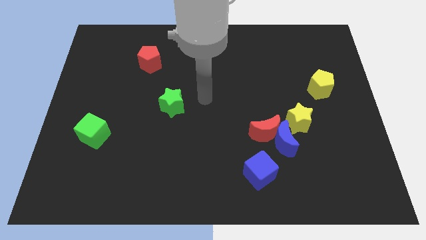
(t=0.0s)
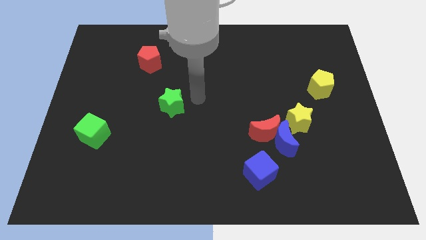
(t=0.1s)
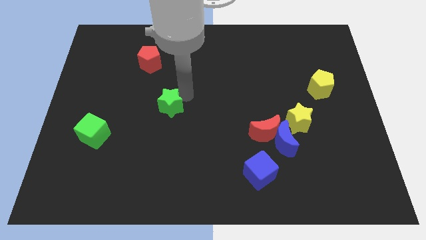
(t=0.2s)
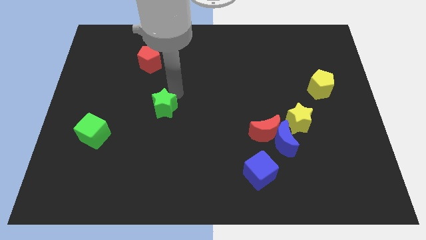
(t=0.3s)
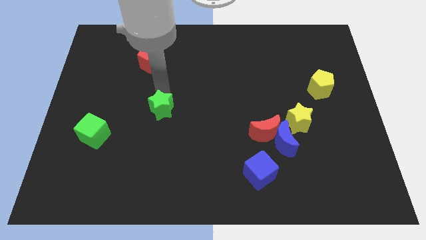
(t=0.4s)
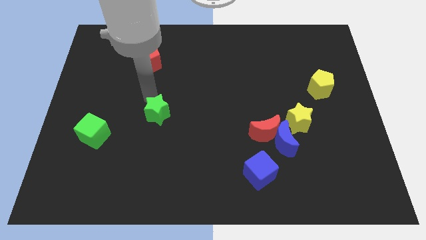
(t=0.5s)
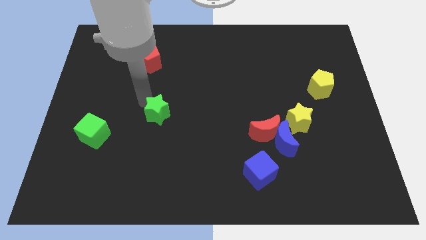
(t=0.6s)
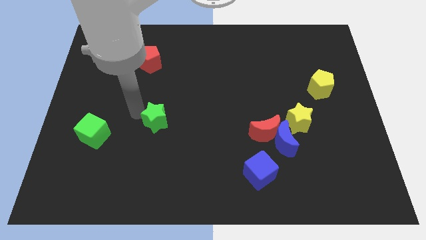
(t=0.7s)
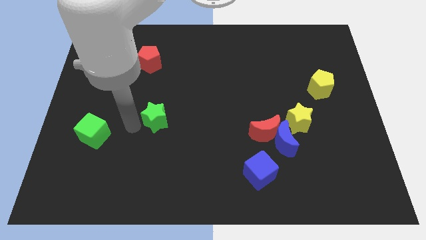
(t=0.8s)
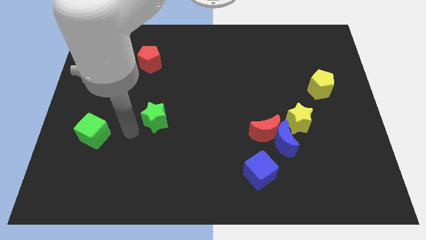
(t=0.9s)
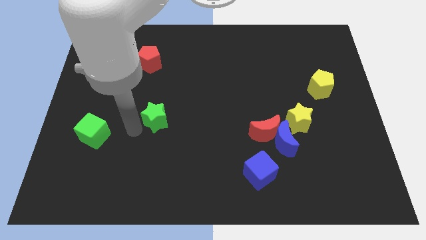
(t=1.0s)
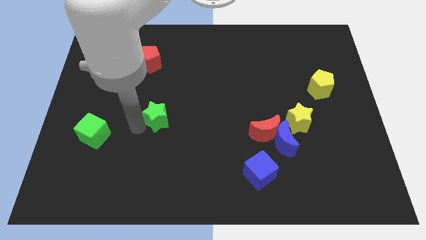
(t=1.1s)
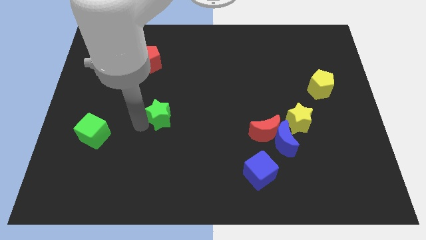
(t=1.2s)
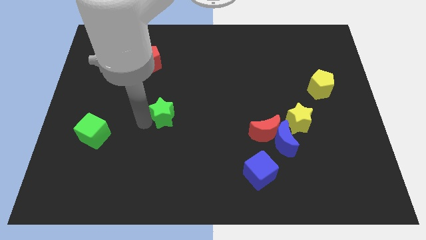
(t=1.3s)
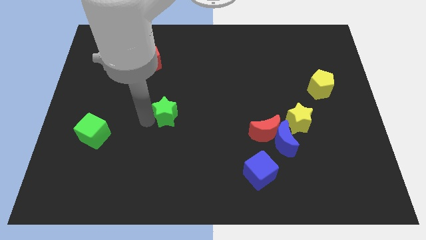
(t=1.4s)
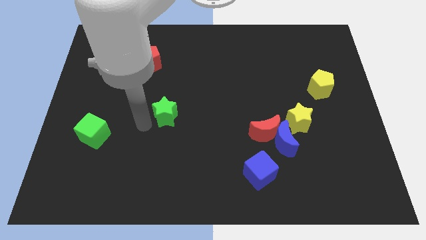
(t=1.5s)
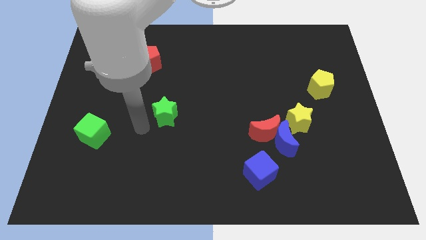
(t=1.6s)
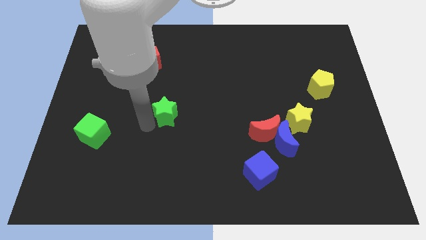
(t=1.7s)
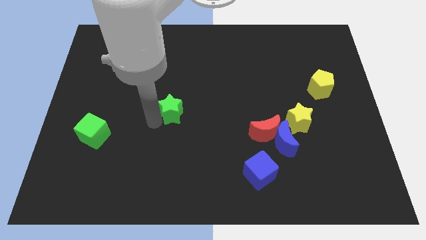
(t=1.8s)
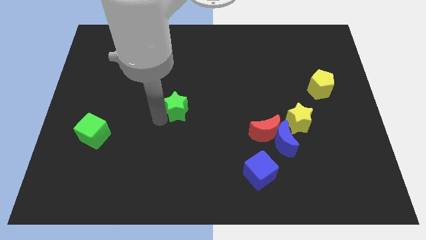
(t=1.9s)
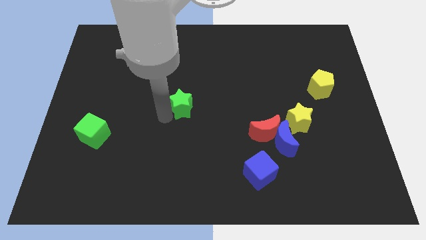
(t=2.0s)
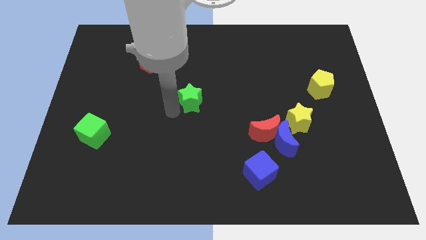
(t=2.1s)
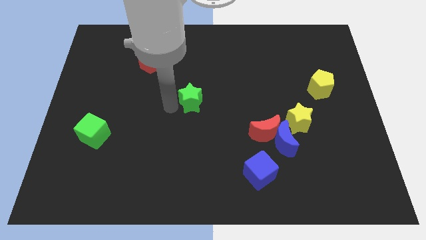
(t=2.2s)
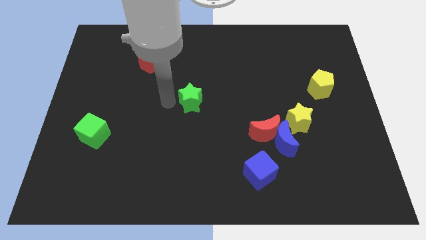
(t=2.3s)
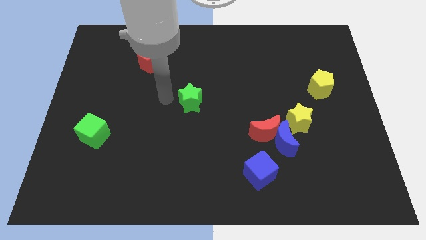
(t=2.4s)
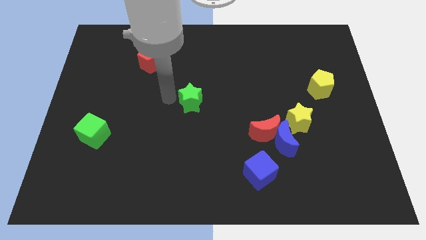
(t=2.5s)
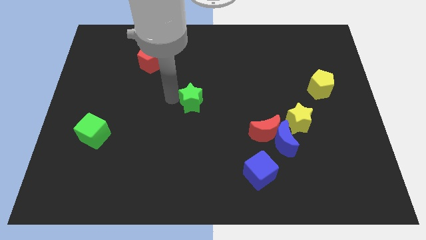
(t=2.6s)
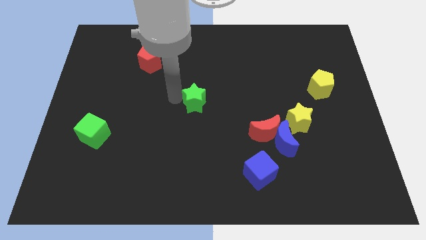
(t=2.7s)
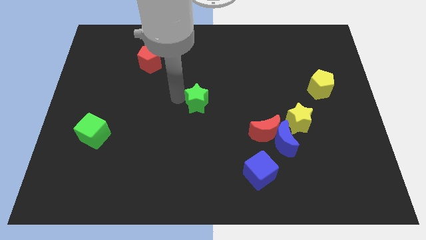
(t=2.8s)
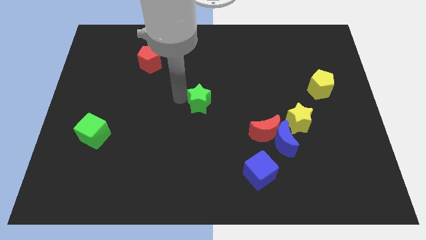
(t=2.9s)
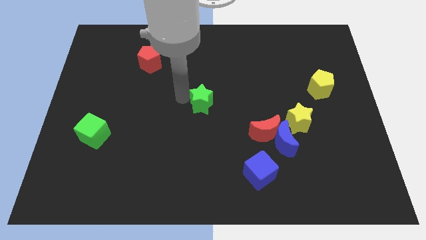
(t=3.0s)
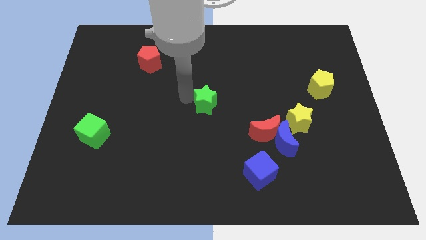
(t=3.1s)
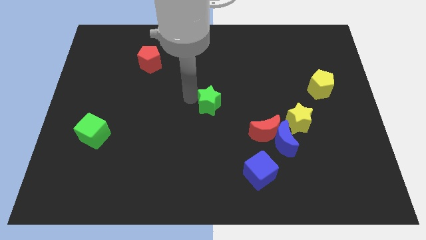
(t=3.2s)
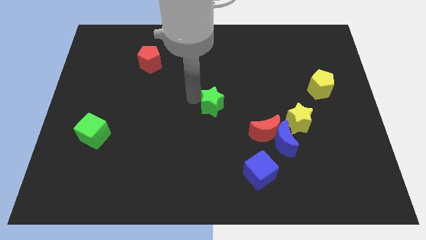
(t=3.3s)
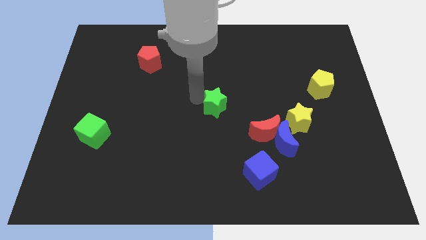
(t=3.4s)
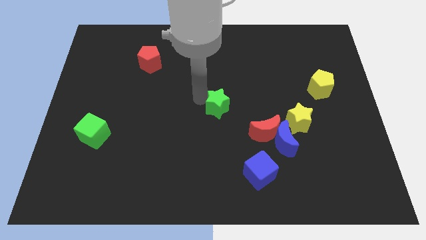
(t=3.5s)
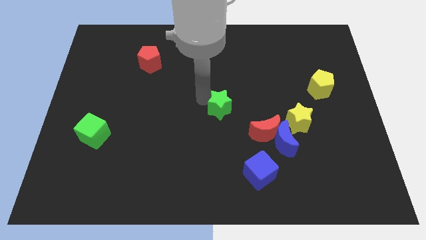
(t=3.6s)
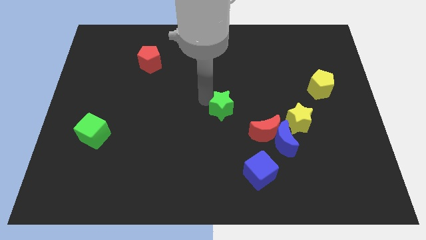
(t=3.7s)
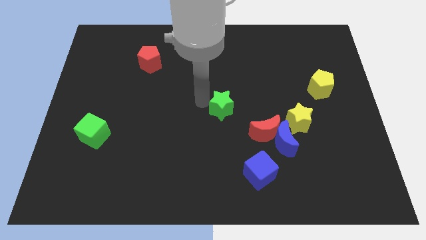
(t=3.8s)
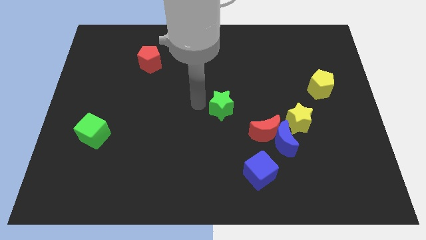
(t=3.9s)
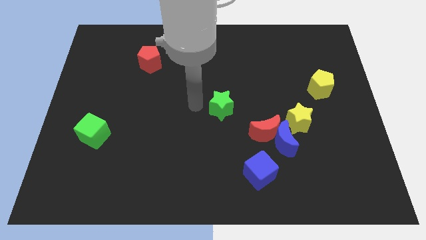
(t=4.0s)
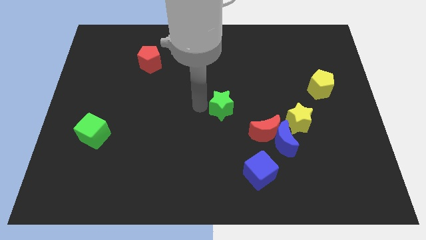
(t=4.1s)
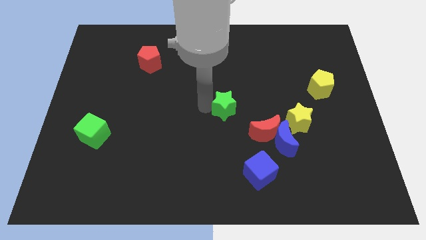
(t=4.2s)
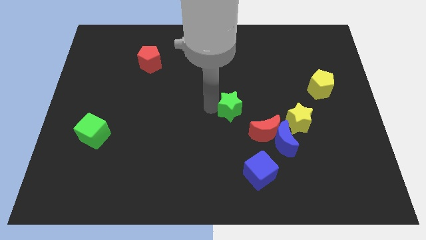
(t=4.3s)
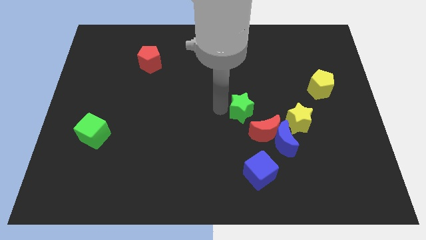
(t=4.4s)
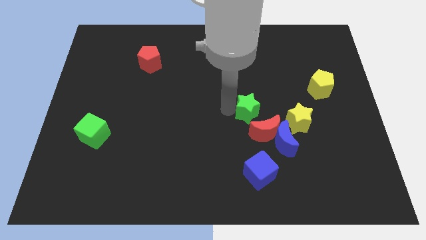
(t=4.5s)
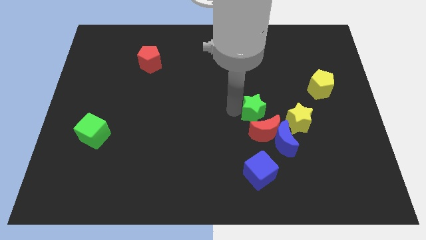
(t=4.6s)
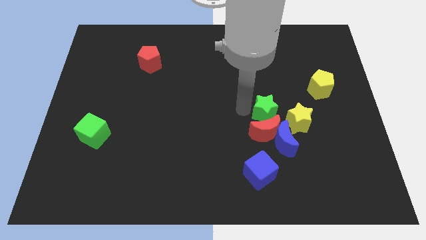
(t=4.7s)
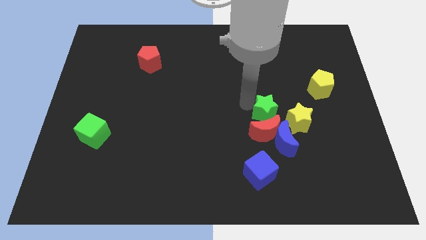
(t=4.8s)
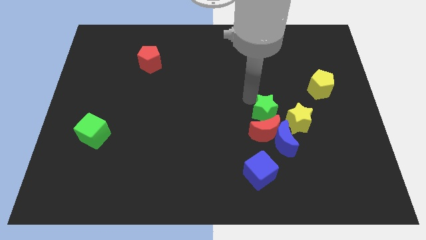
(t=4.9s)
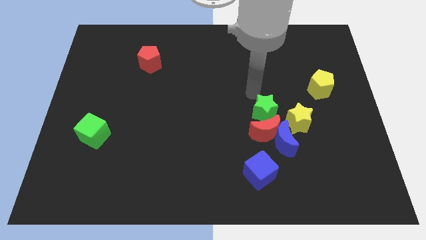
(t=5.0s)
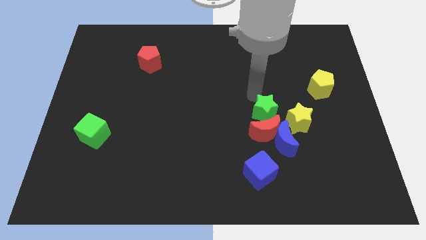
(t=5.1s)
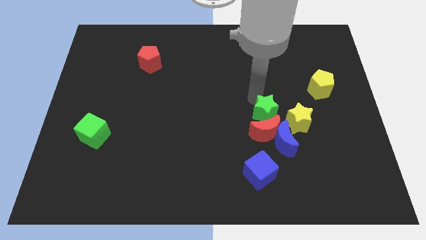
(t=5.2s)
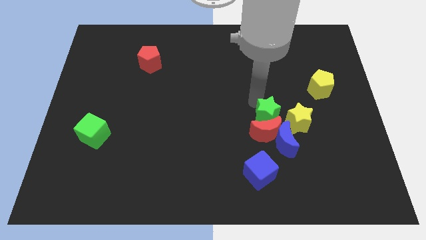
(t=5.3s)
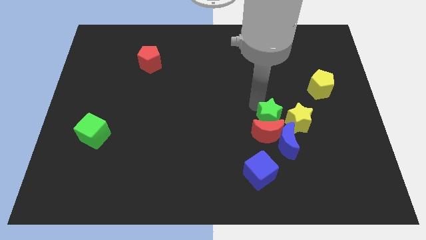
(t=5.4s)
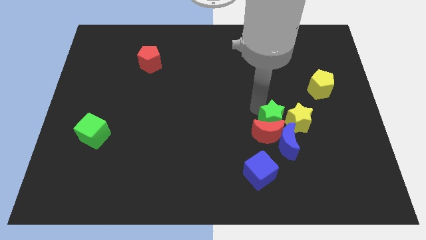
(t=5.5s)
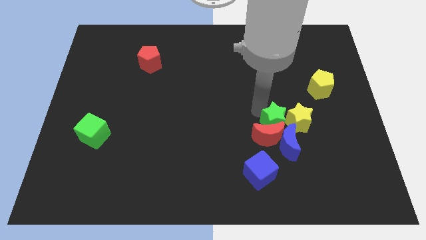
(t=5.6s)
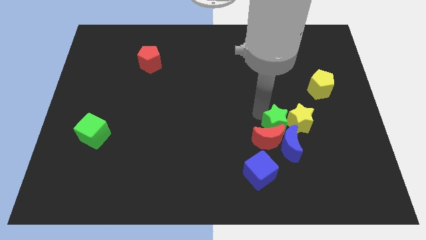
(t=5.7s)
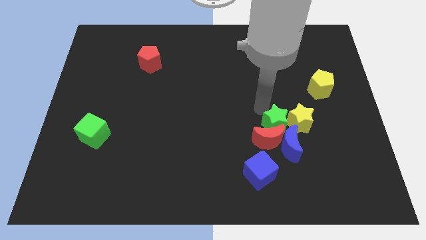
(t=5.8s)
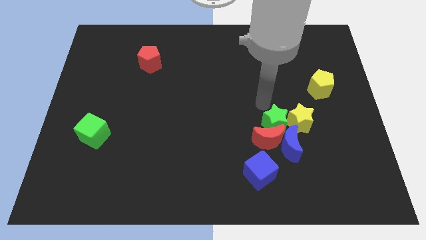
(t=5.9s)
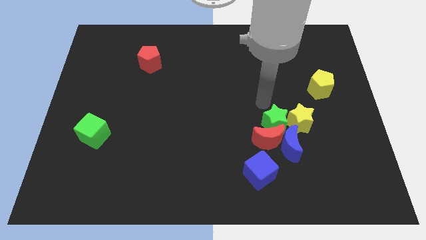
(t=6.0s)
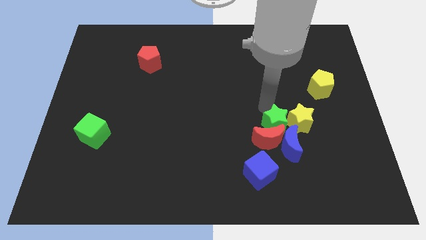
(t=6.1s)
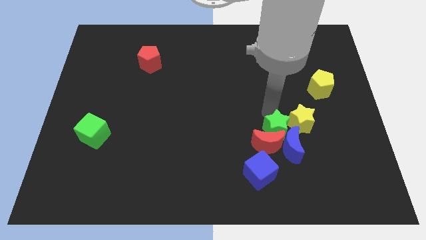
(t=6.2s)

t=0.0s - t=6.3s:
put the green star to the blue moon

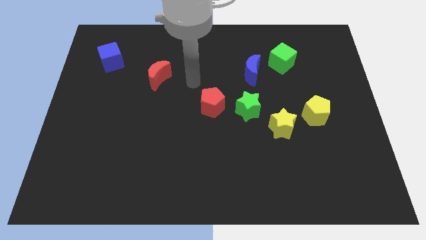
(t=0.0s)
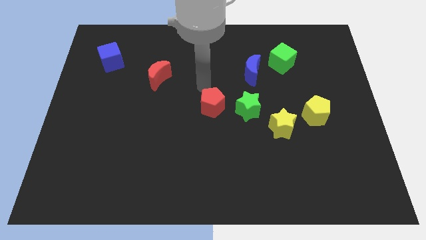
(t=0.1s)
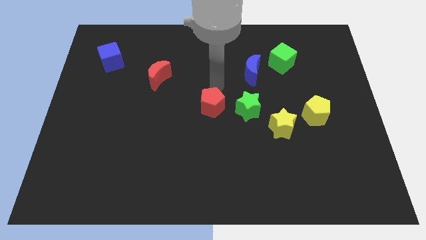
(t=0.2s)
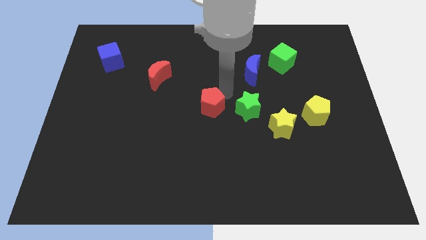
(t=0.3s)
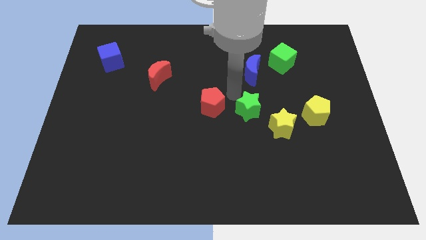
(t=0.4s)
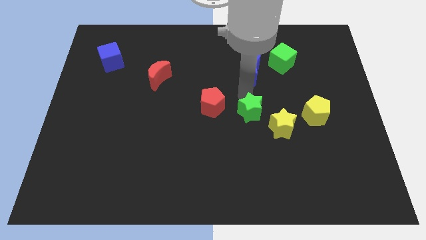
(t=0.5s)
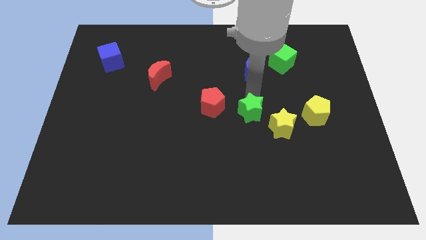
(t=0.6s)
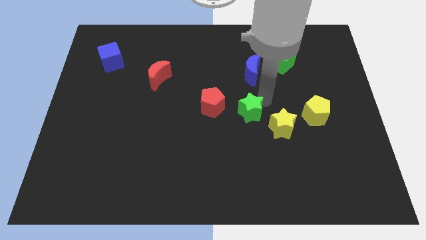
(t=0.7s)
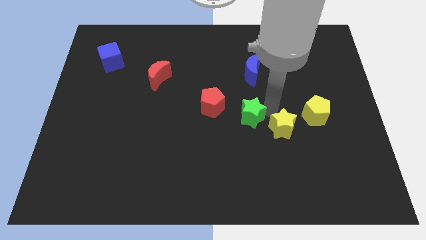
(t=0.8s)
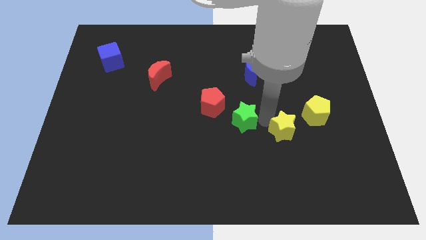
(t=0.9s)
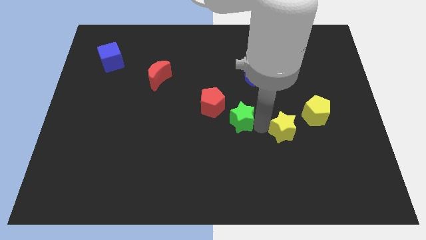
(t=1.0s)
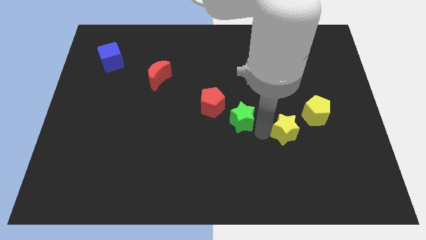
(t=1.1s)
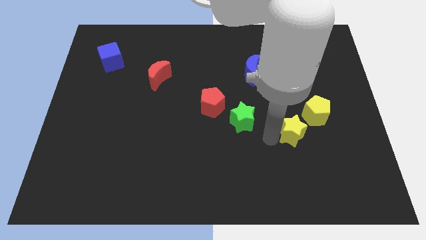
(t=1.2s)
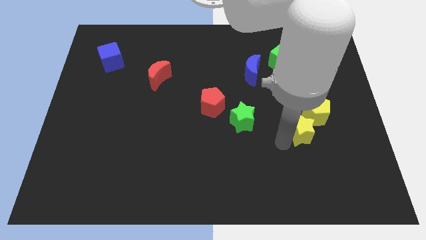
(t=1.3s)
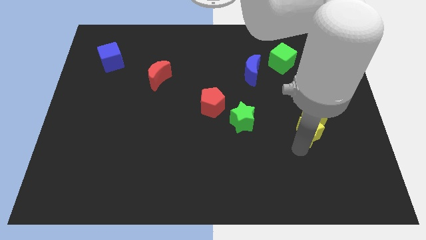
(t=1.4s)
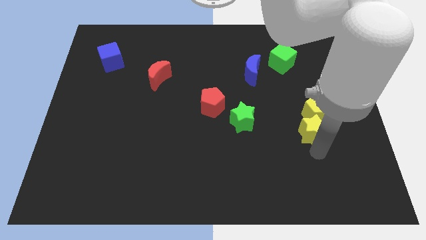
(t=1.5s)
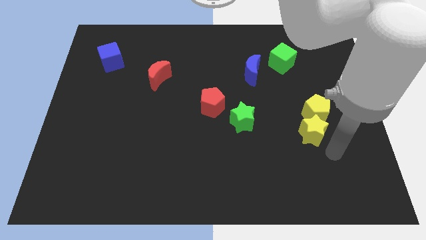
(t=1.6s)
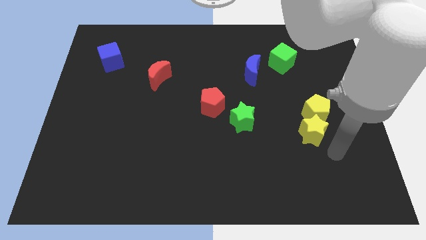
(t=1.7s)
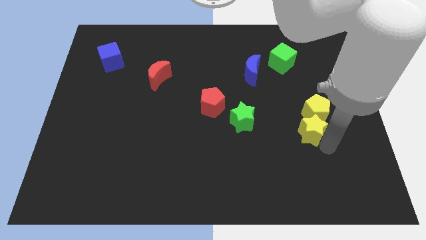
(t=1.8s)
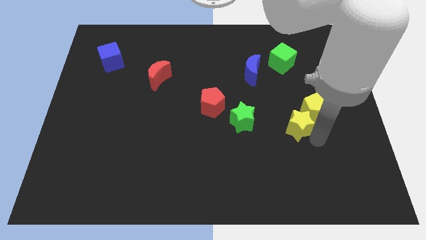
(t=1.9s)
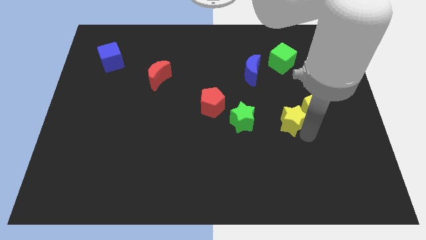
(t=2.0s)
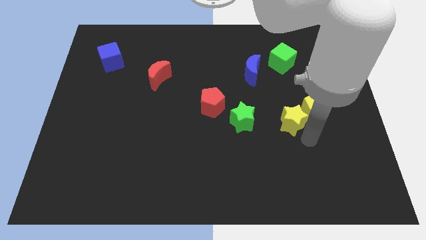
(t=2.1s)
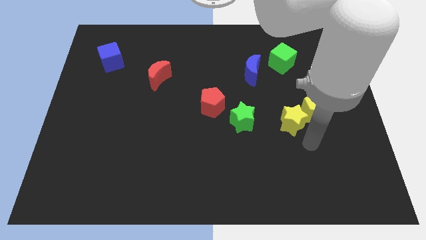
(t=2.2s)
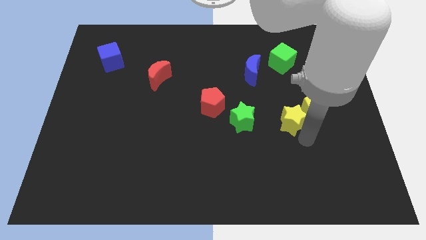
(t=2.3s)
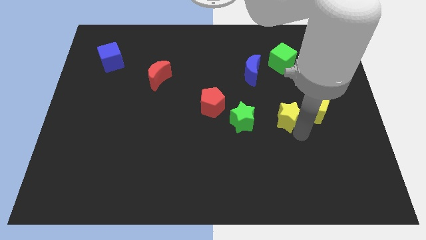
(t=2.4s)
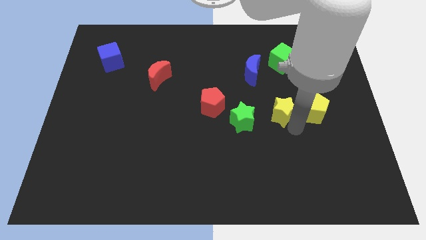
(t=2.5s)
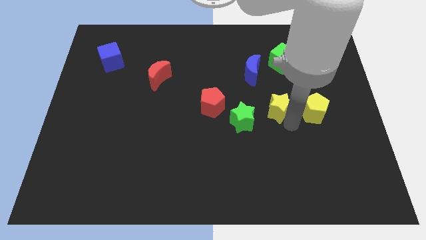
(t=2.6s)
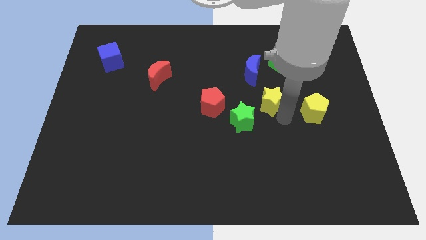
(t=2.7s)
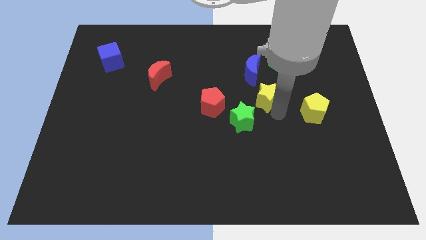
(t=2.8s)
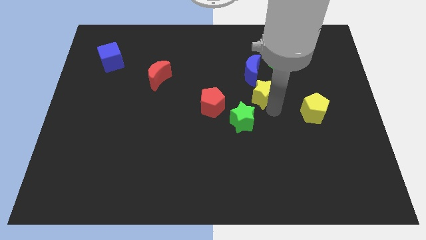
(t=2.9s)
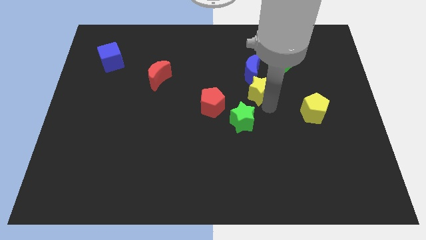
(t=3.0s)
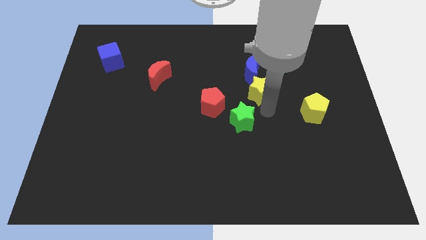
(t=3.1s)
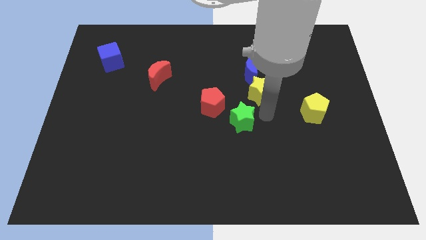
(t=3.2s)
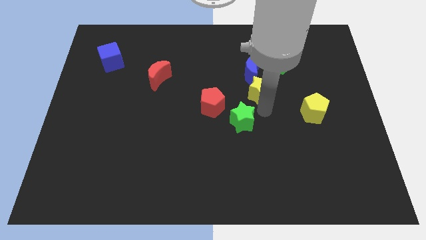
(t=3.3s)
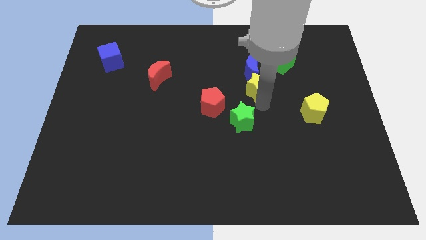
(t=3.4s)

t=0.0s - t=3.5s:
move the yellow star to the blue moon
